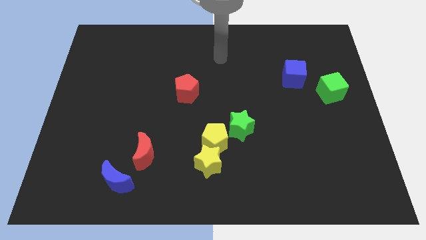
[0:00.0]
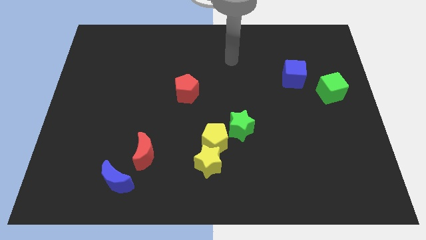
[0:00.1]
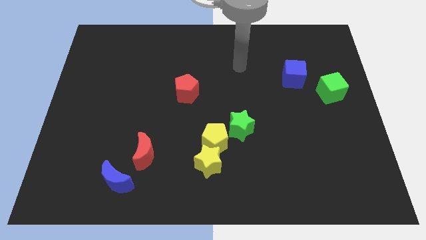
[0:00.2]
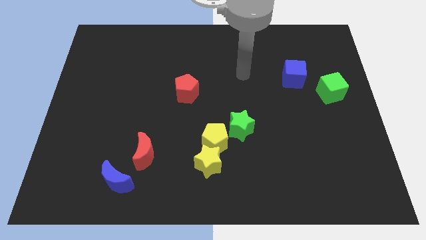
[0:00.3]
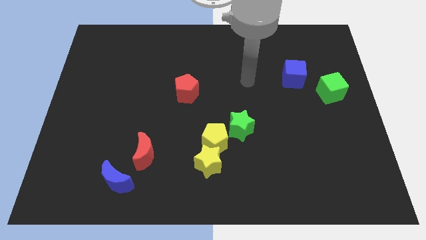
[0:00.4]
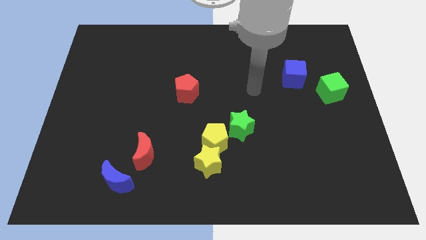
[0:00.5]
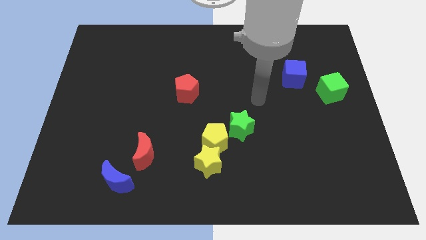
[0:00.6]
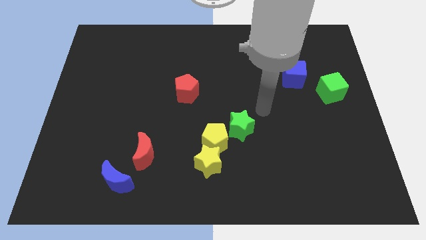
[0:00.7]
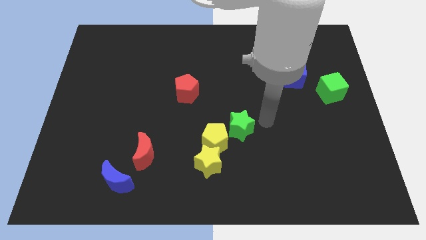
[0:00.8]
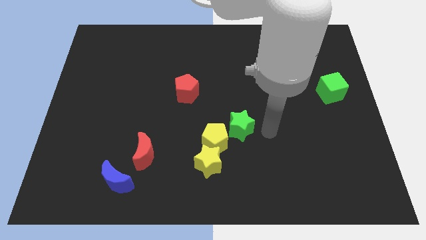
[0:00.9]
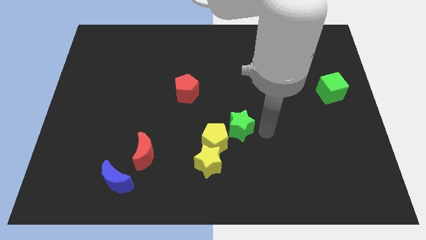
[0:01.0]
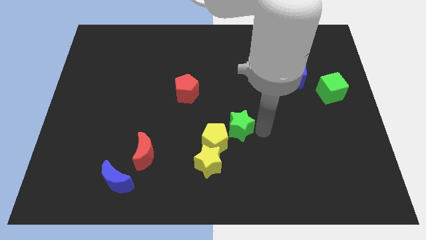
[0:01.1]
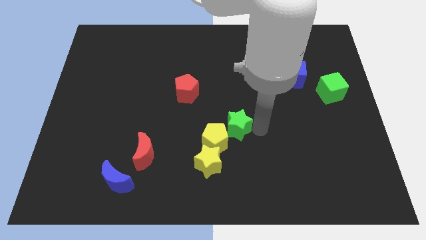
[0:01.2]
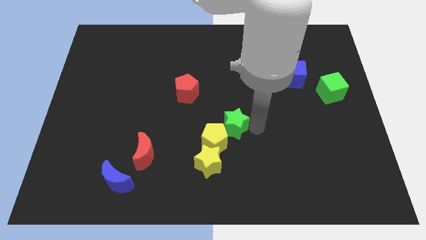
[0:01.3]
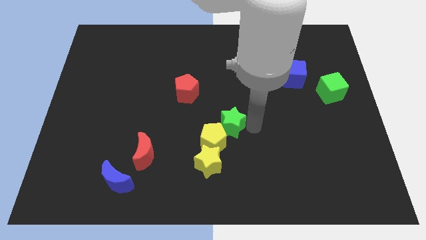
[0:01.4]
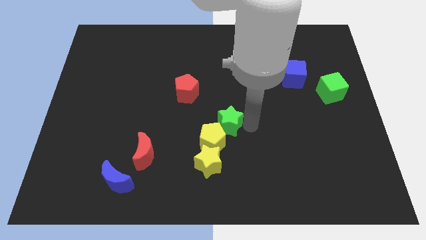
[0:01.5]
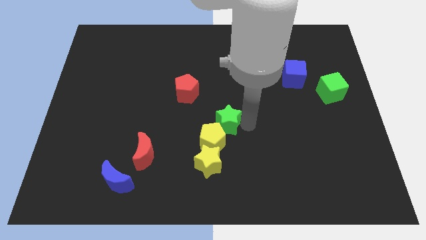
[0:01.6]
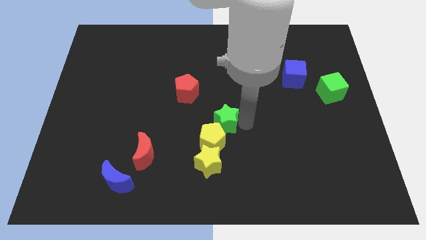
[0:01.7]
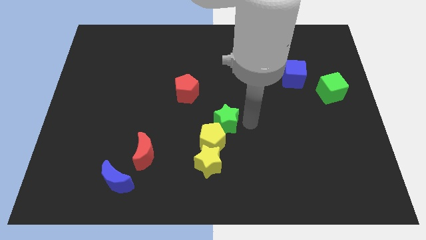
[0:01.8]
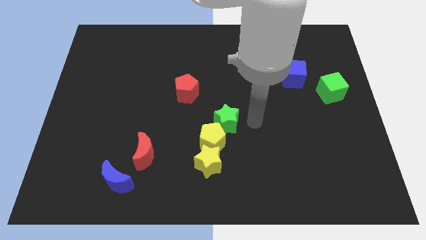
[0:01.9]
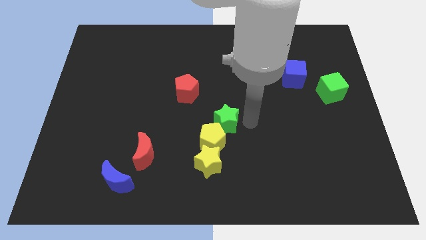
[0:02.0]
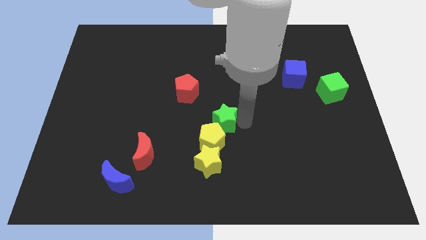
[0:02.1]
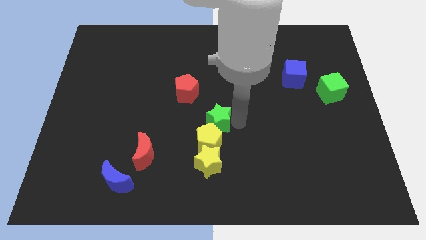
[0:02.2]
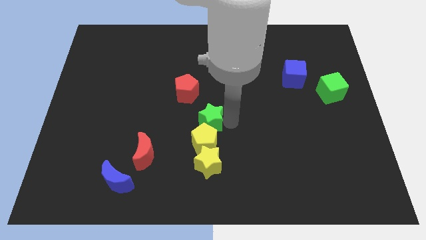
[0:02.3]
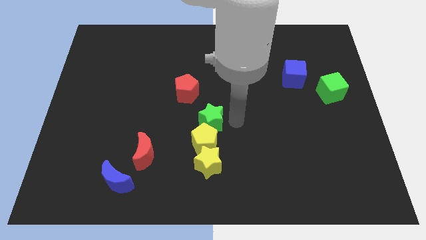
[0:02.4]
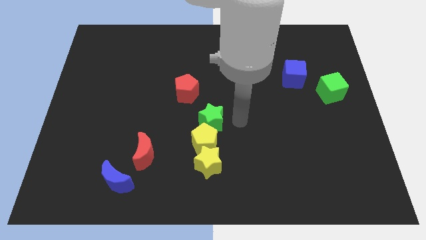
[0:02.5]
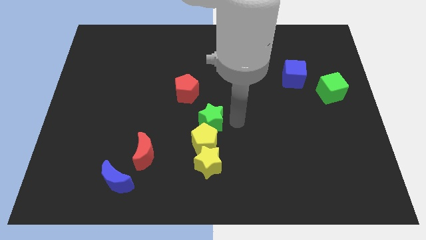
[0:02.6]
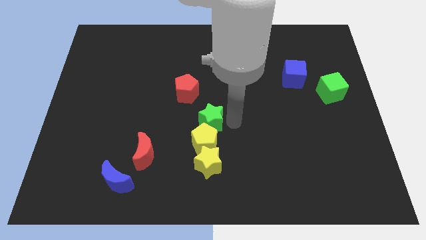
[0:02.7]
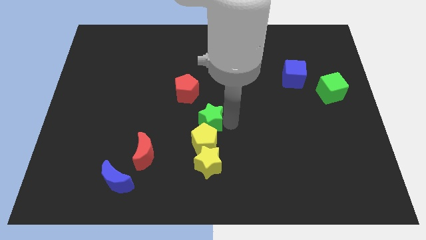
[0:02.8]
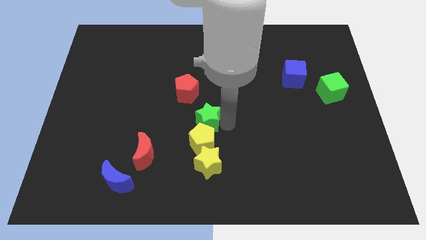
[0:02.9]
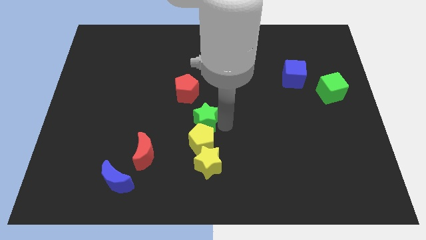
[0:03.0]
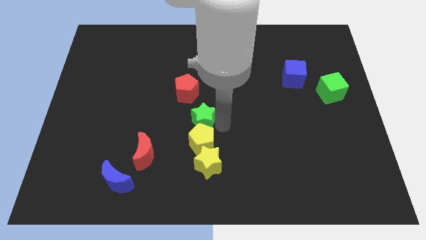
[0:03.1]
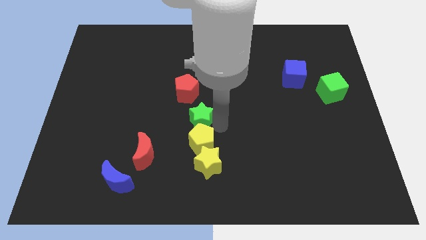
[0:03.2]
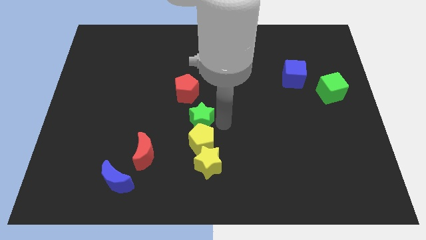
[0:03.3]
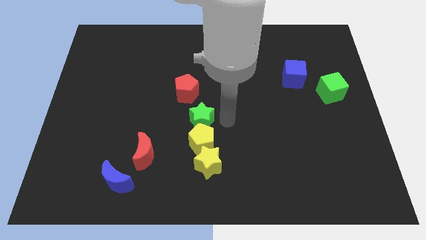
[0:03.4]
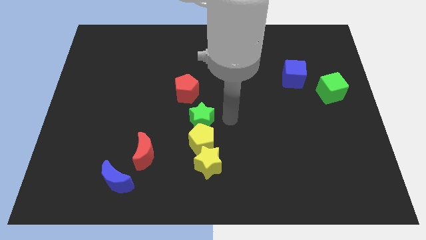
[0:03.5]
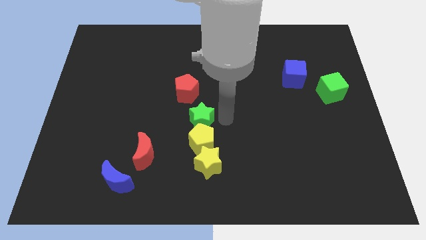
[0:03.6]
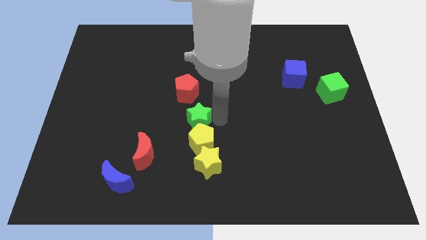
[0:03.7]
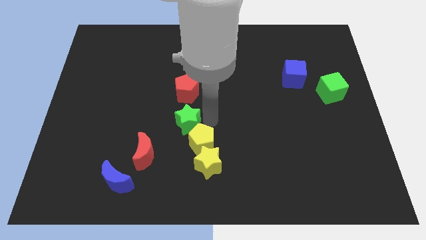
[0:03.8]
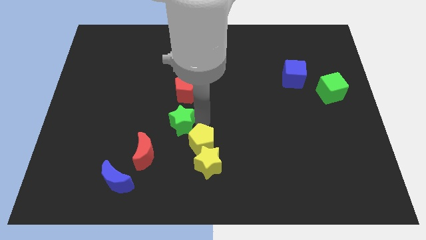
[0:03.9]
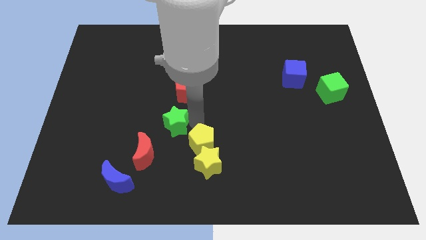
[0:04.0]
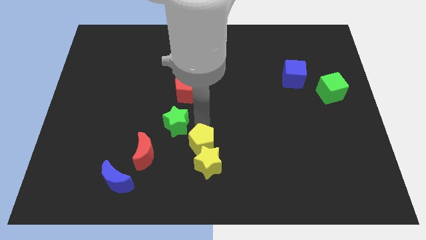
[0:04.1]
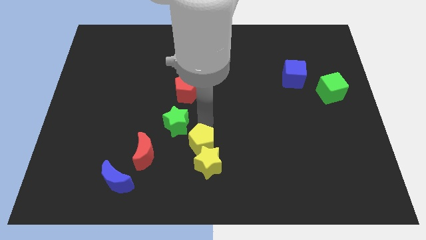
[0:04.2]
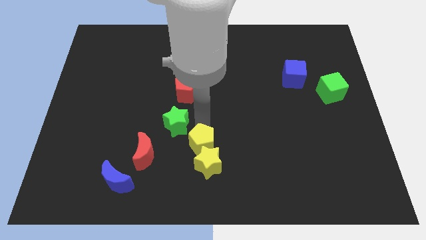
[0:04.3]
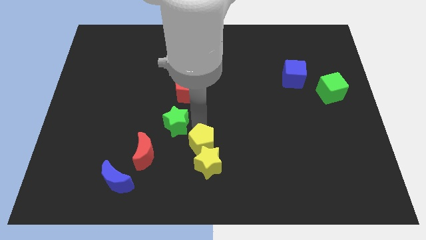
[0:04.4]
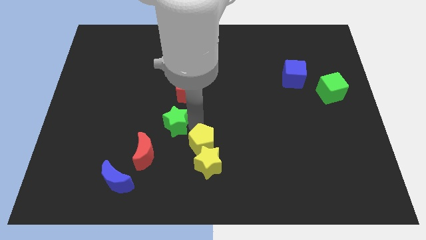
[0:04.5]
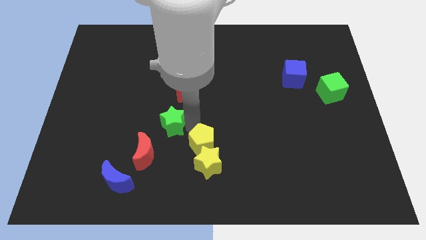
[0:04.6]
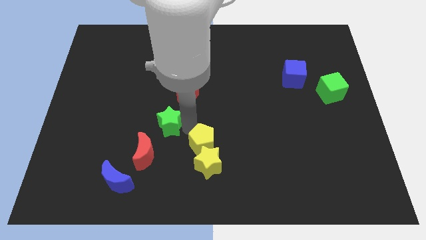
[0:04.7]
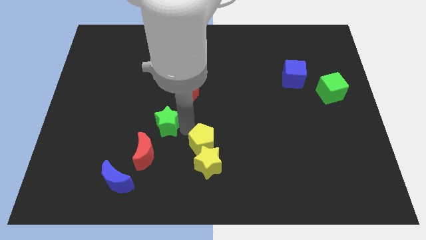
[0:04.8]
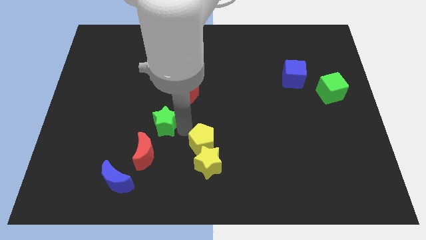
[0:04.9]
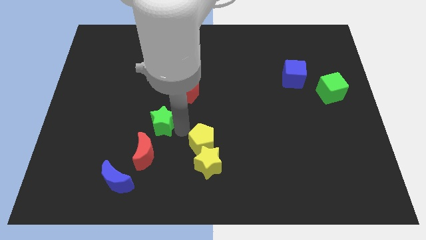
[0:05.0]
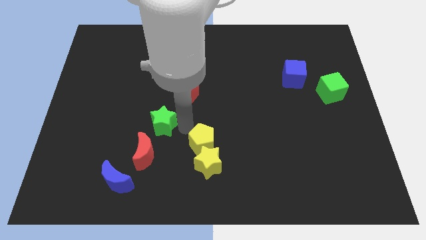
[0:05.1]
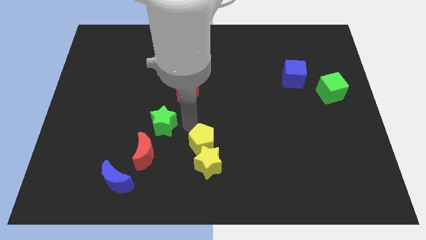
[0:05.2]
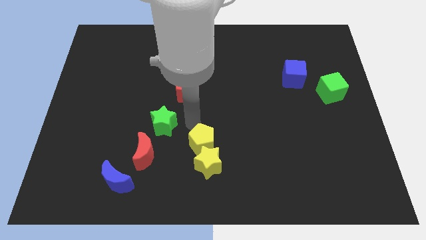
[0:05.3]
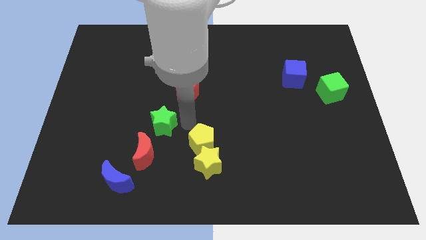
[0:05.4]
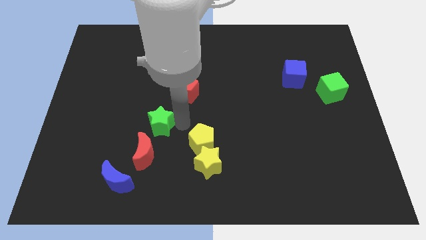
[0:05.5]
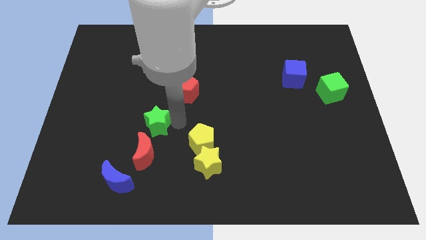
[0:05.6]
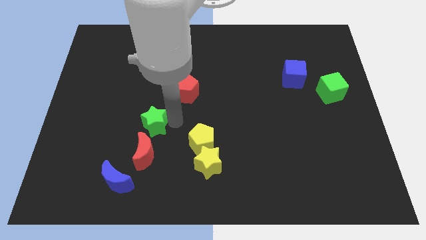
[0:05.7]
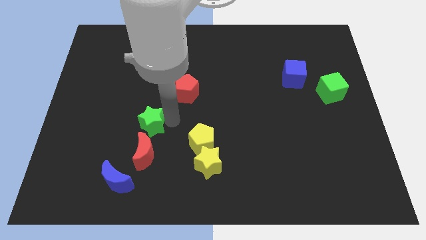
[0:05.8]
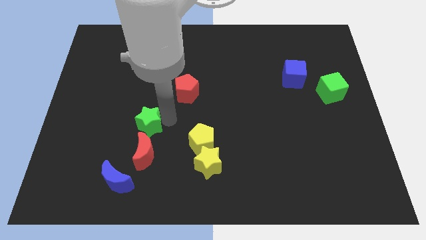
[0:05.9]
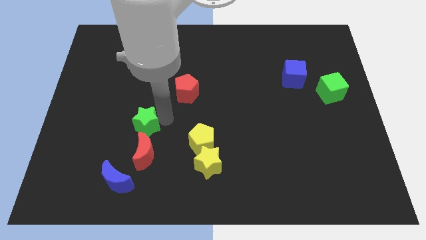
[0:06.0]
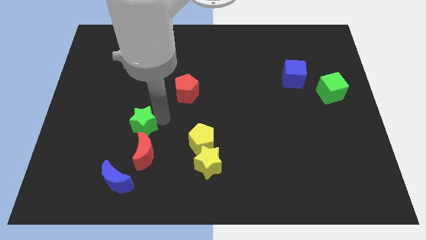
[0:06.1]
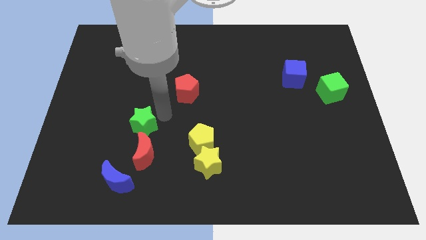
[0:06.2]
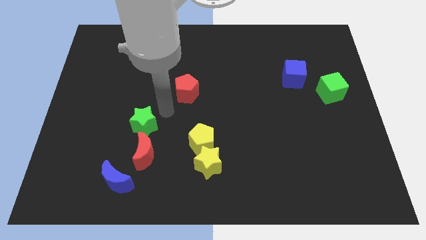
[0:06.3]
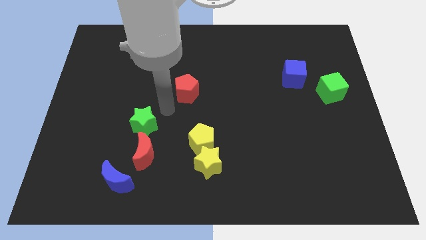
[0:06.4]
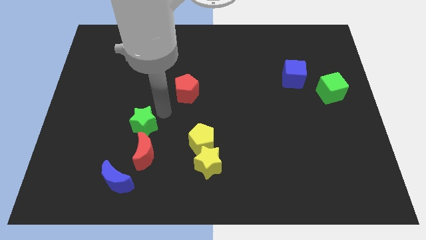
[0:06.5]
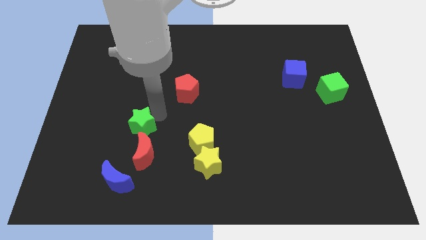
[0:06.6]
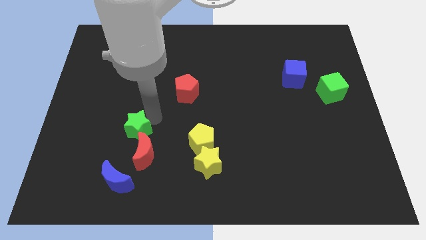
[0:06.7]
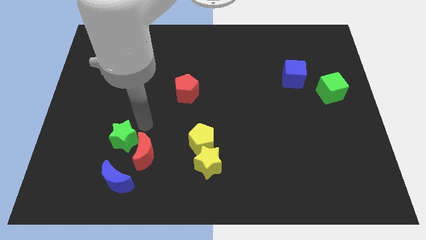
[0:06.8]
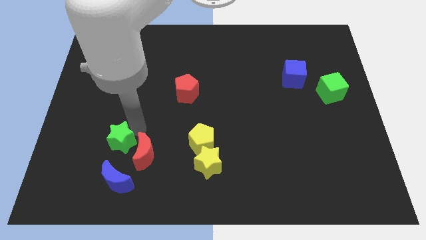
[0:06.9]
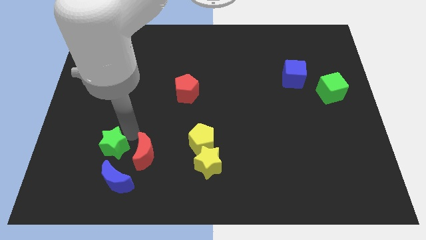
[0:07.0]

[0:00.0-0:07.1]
move the green star diagonally up and to the left of the blue moon

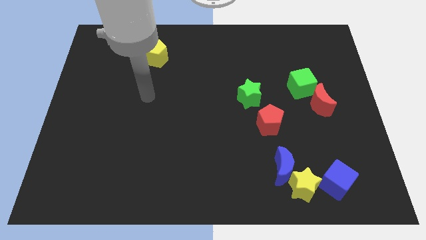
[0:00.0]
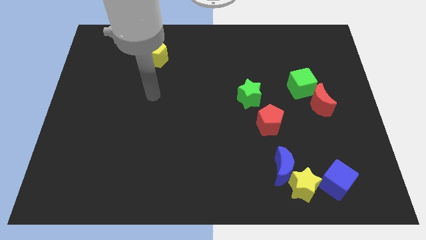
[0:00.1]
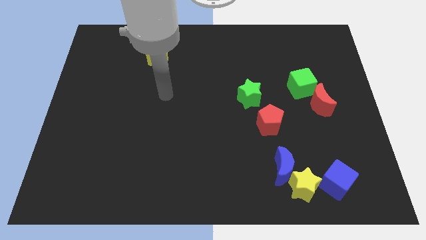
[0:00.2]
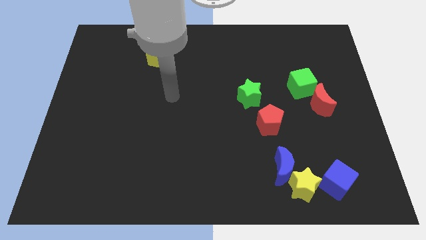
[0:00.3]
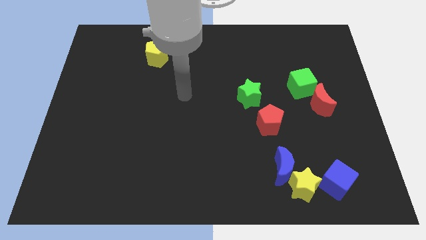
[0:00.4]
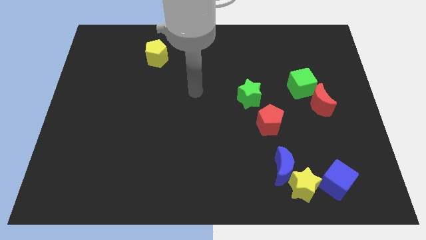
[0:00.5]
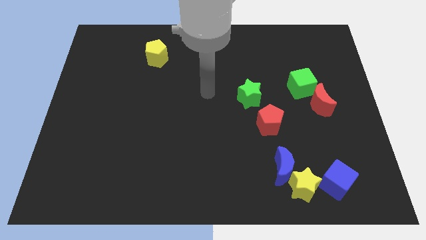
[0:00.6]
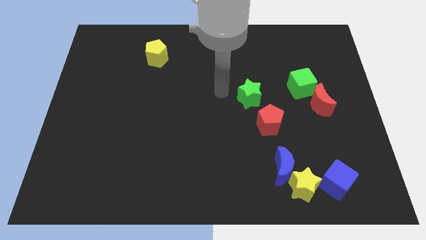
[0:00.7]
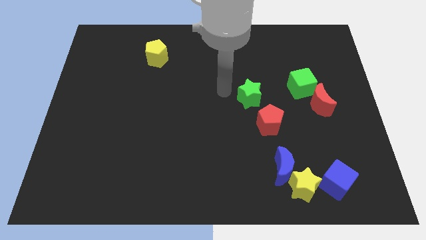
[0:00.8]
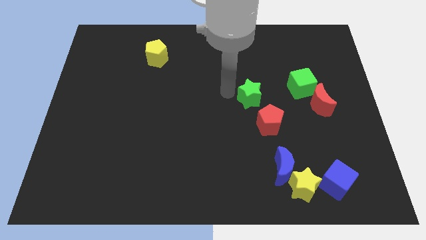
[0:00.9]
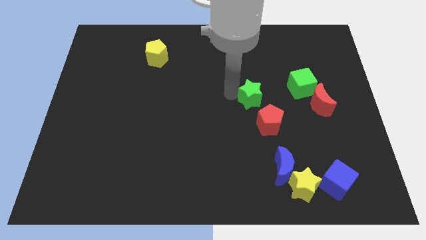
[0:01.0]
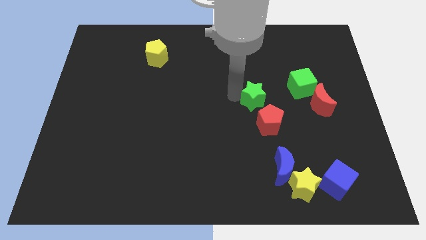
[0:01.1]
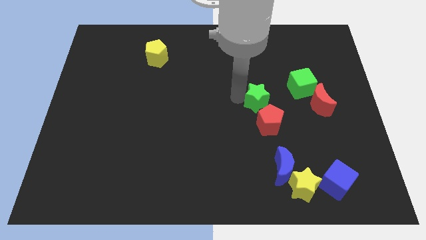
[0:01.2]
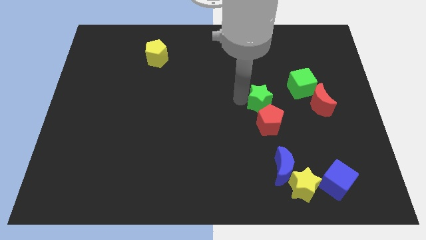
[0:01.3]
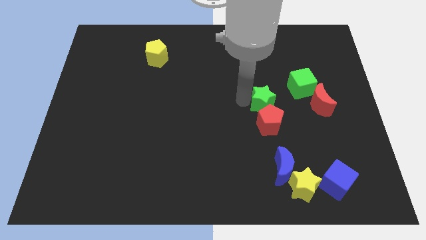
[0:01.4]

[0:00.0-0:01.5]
push the green star to the top right side of the red pentagon
